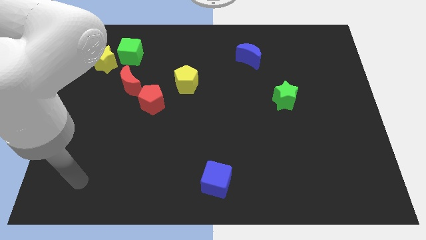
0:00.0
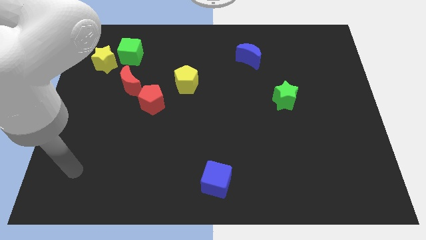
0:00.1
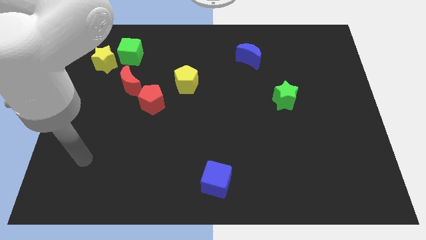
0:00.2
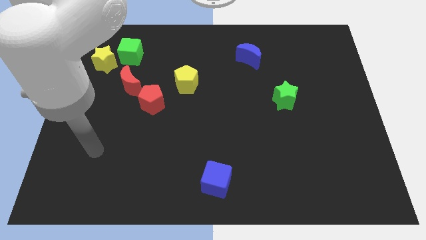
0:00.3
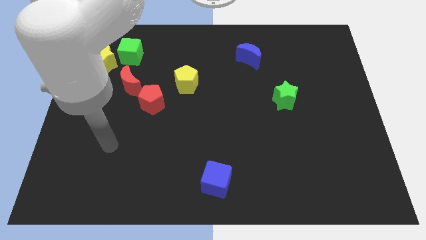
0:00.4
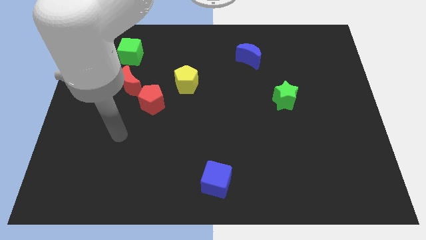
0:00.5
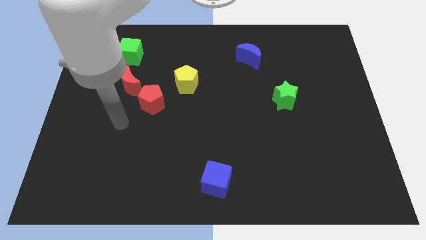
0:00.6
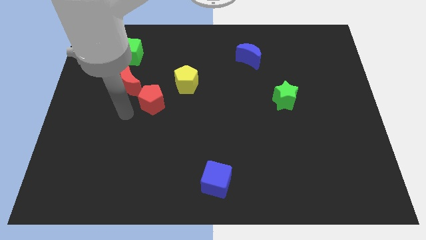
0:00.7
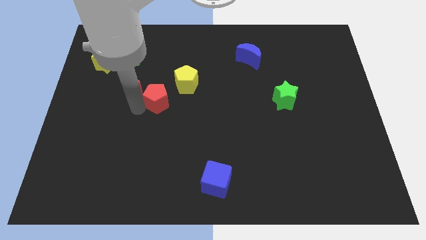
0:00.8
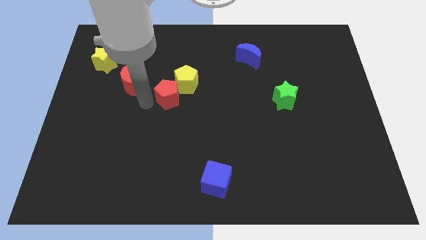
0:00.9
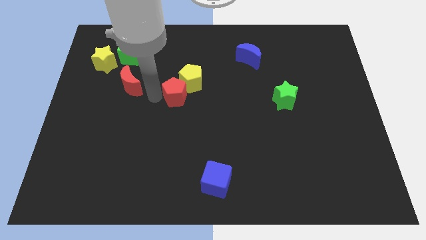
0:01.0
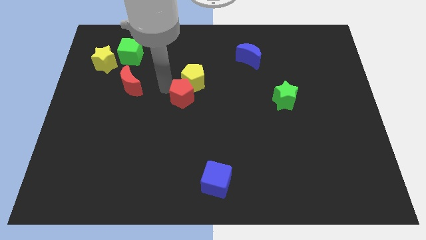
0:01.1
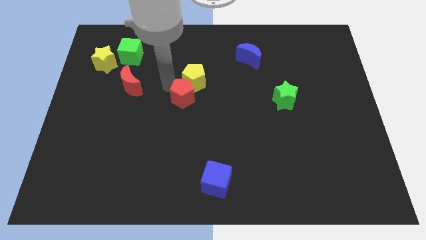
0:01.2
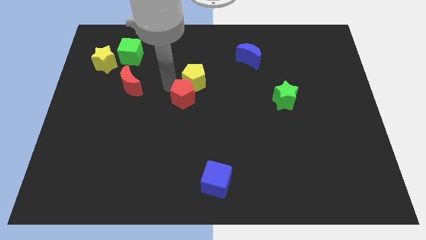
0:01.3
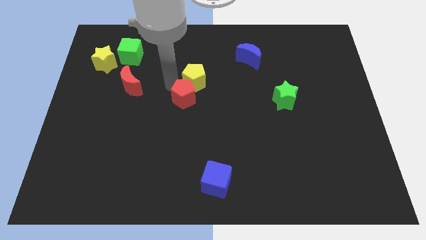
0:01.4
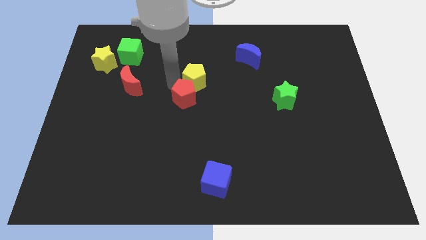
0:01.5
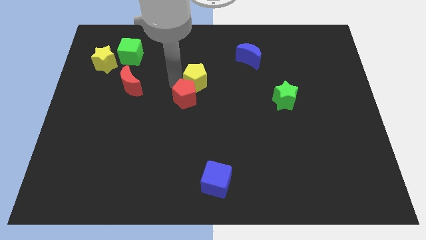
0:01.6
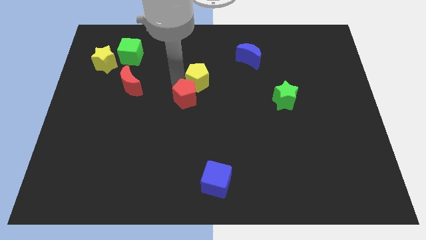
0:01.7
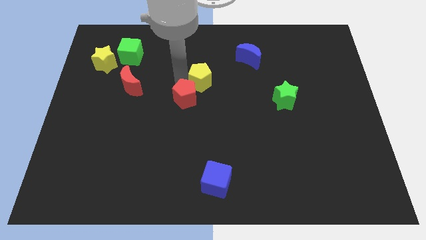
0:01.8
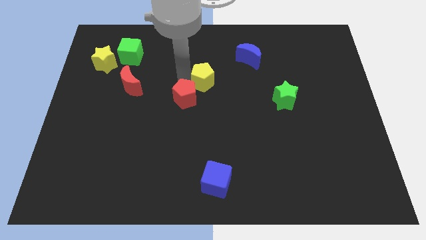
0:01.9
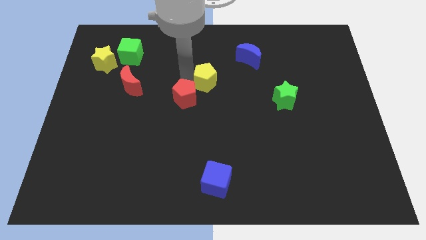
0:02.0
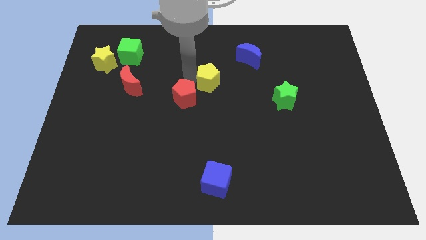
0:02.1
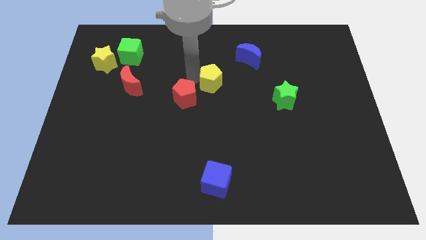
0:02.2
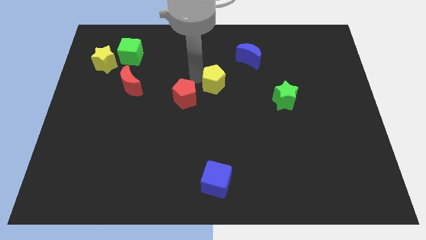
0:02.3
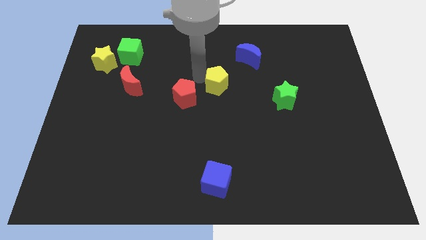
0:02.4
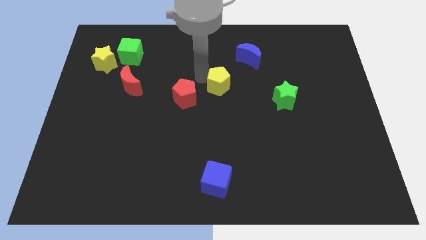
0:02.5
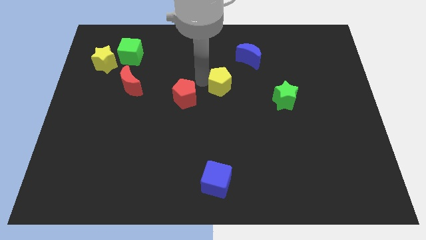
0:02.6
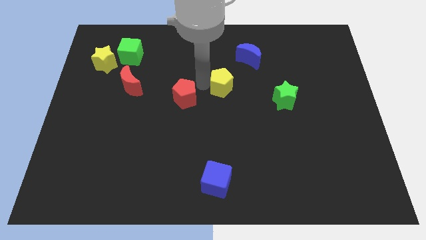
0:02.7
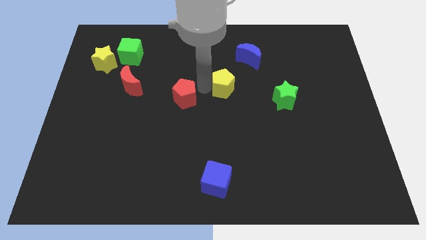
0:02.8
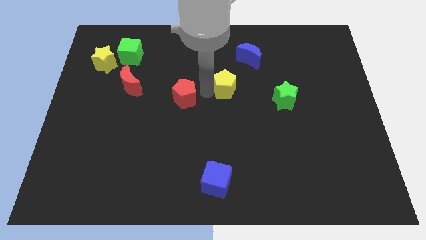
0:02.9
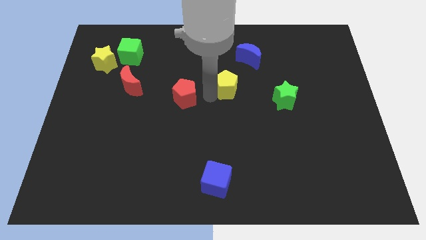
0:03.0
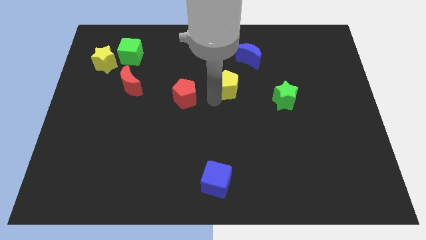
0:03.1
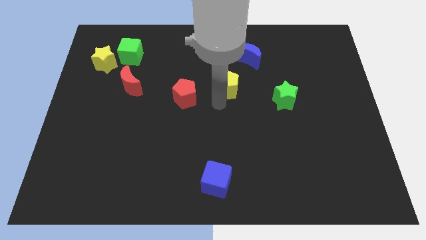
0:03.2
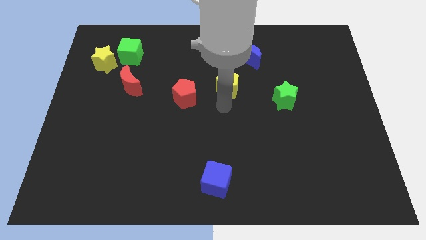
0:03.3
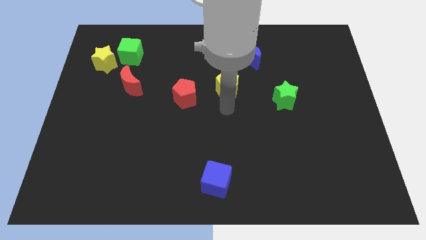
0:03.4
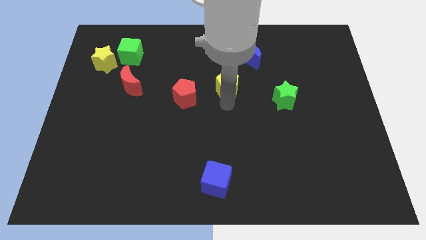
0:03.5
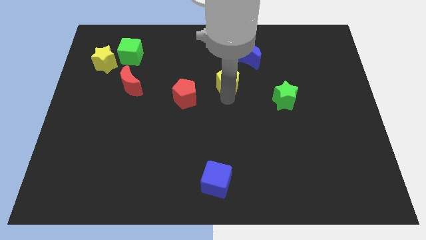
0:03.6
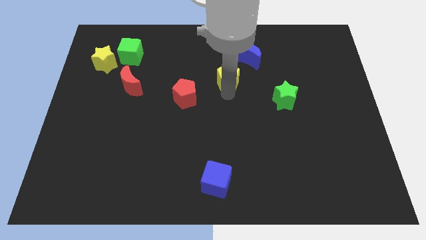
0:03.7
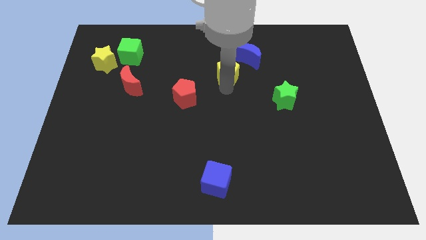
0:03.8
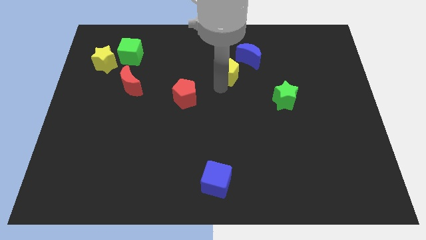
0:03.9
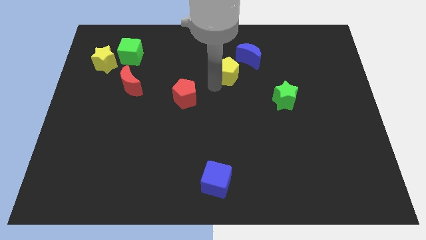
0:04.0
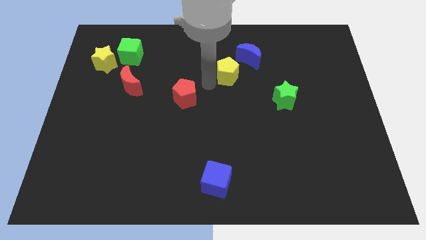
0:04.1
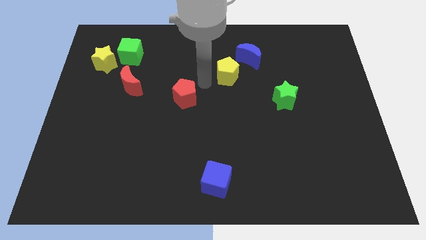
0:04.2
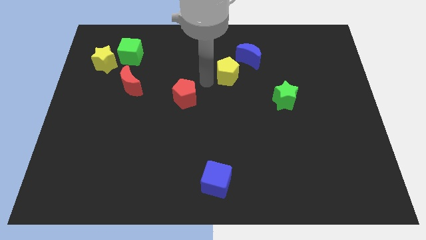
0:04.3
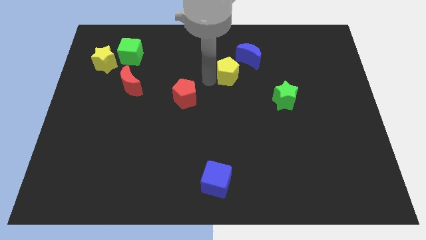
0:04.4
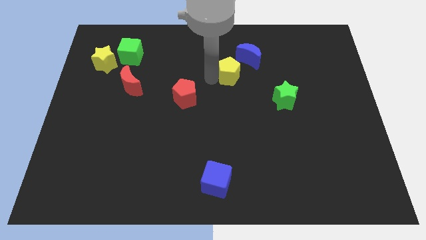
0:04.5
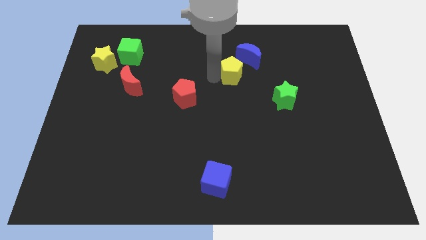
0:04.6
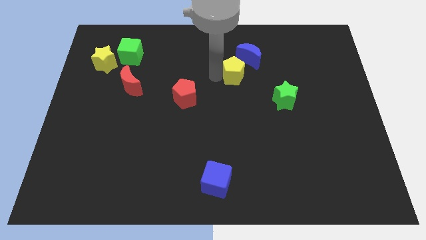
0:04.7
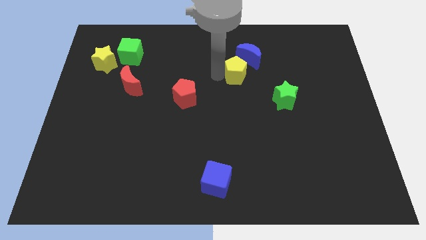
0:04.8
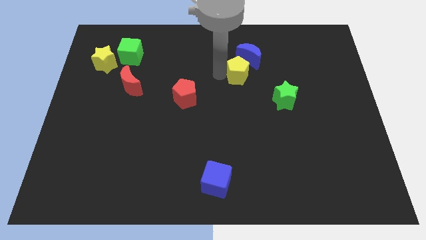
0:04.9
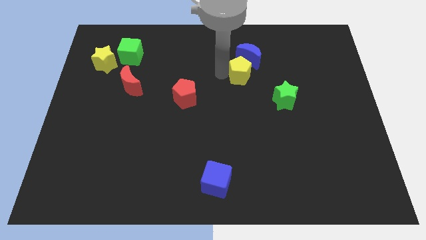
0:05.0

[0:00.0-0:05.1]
move the yellow pentagon towards the blue moon

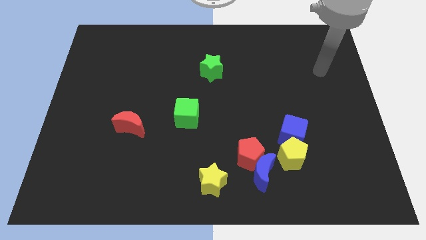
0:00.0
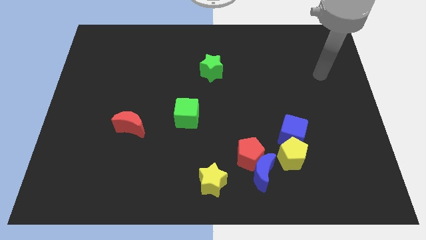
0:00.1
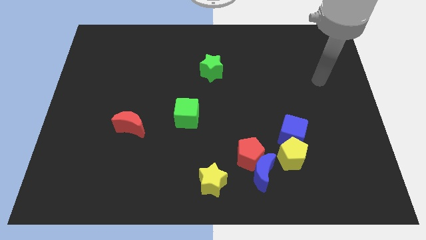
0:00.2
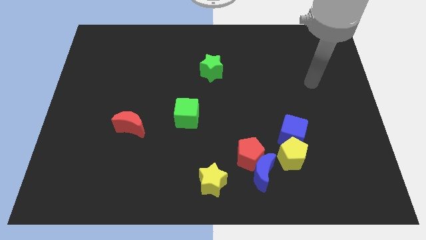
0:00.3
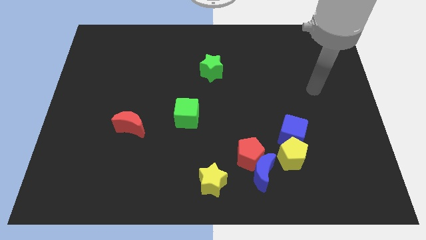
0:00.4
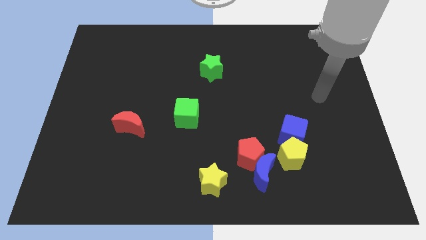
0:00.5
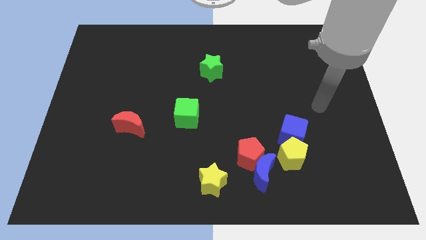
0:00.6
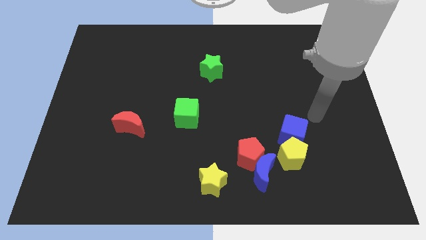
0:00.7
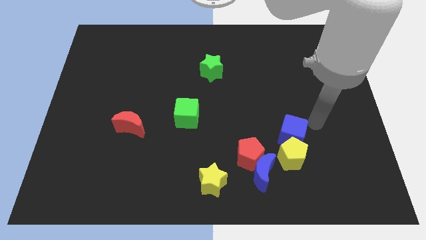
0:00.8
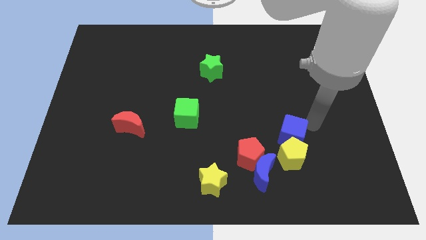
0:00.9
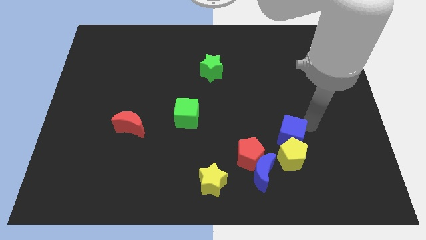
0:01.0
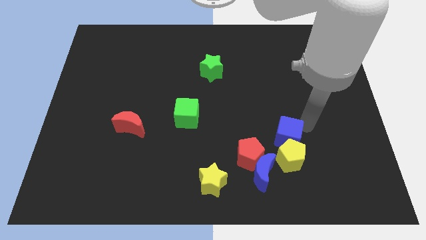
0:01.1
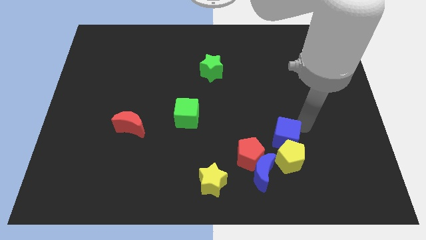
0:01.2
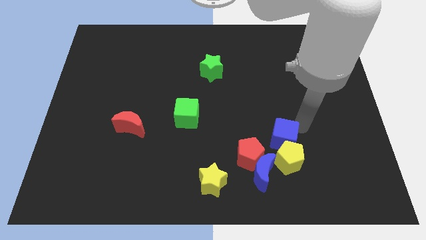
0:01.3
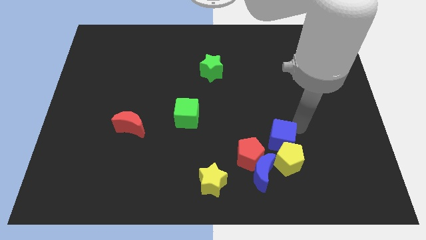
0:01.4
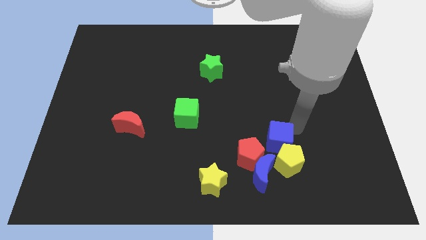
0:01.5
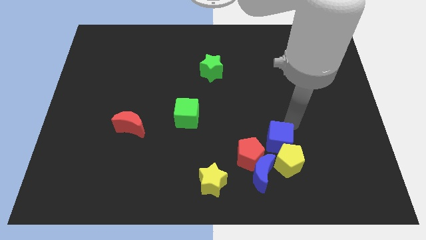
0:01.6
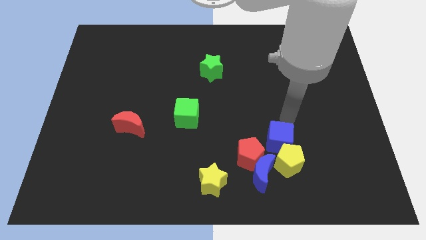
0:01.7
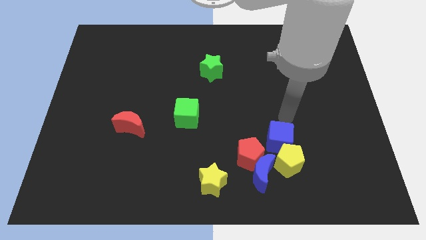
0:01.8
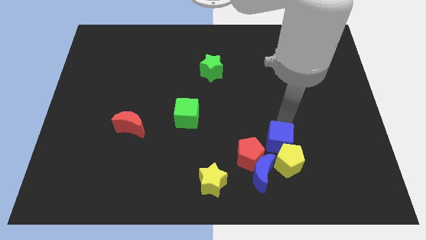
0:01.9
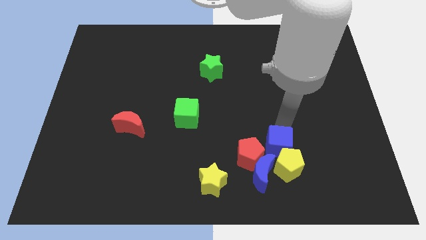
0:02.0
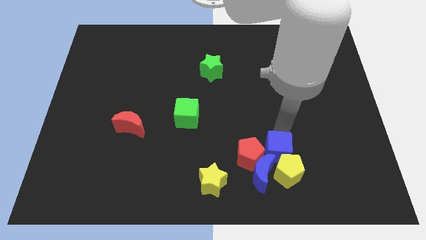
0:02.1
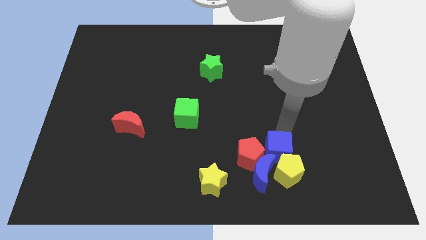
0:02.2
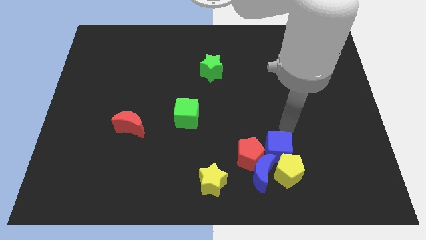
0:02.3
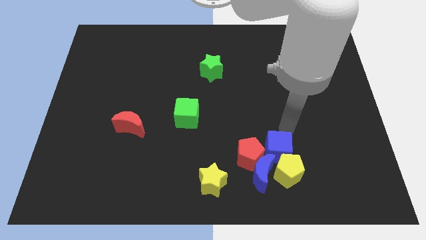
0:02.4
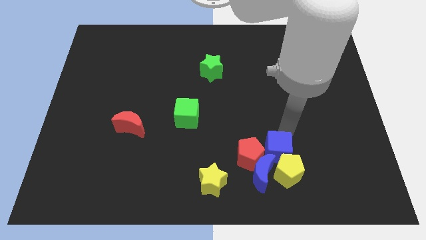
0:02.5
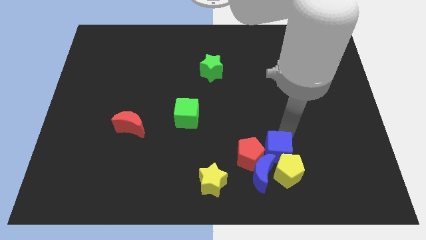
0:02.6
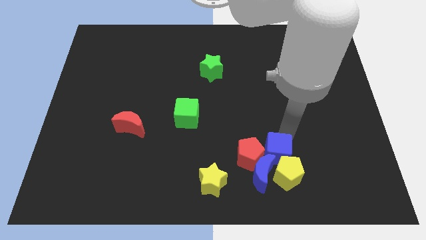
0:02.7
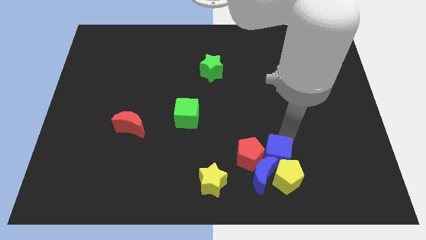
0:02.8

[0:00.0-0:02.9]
put the blue cube towards the blue moon
